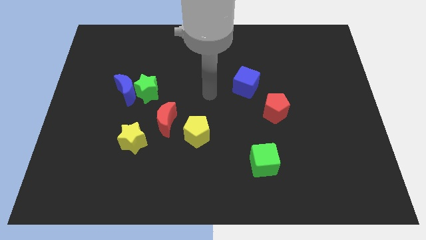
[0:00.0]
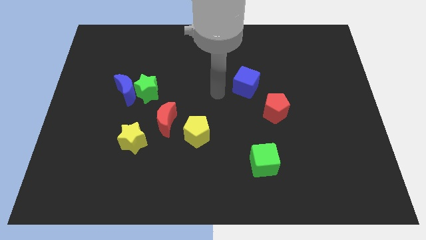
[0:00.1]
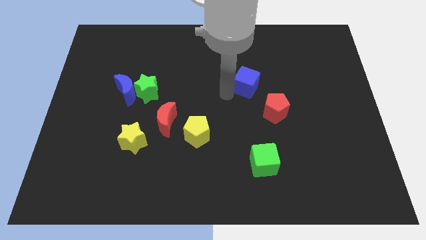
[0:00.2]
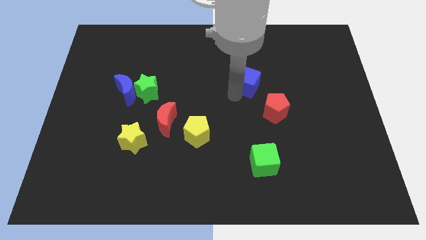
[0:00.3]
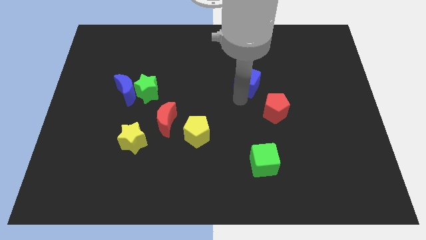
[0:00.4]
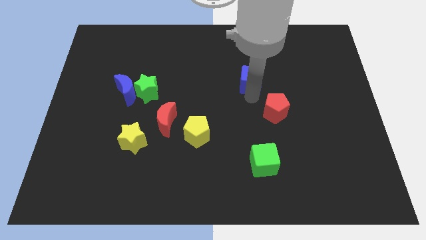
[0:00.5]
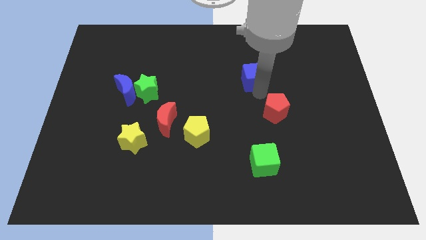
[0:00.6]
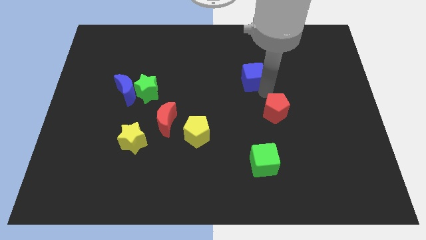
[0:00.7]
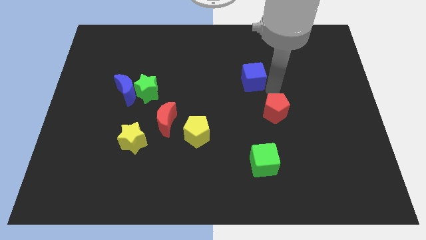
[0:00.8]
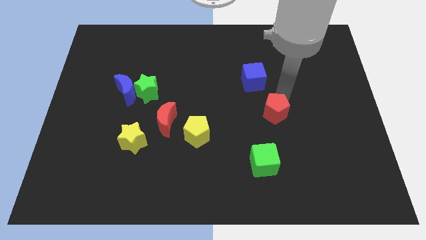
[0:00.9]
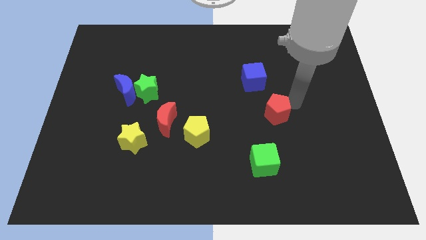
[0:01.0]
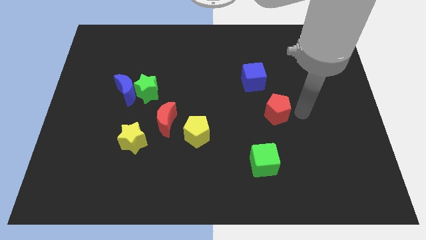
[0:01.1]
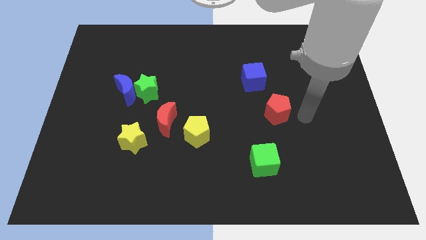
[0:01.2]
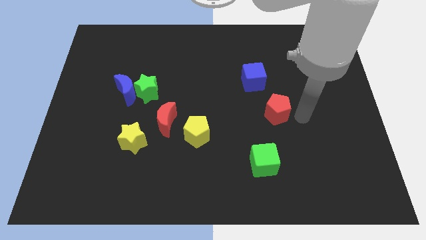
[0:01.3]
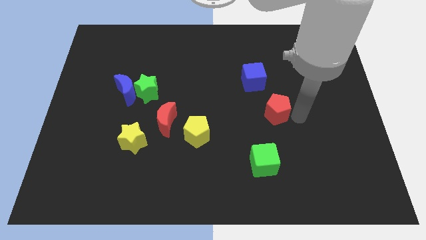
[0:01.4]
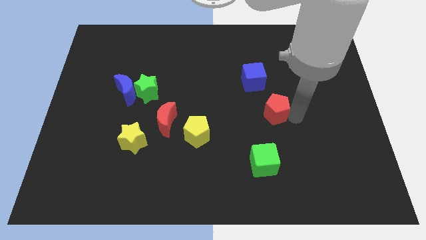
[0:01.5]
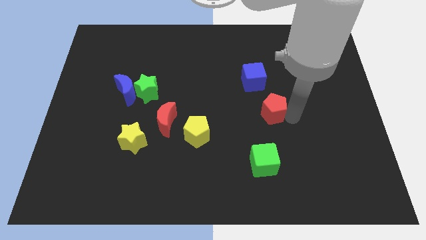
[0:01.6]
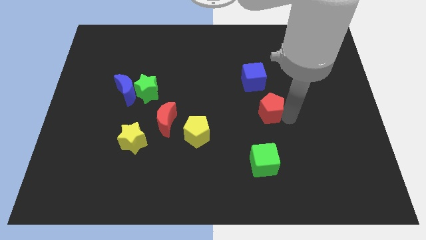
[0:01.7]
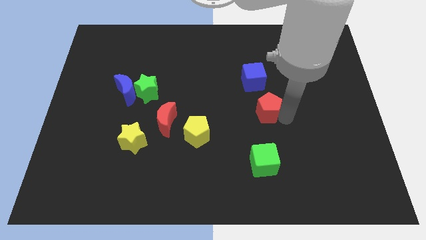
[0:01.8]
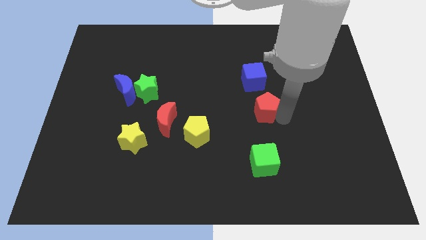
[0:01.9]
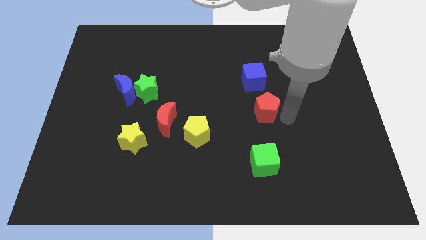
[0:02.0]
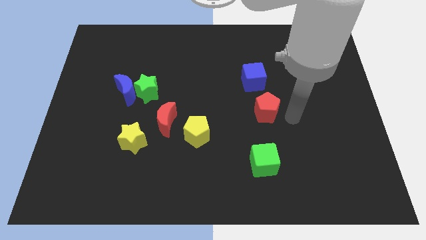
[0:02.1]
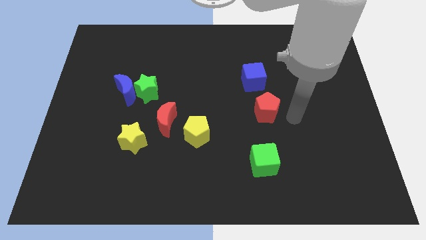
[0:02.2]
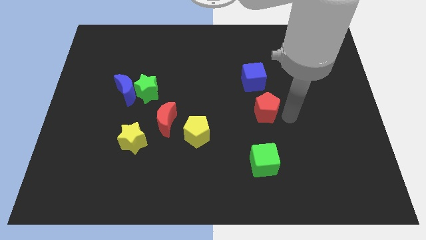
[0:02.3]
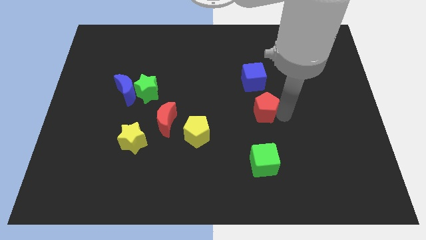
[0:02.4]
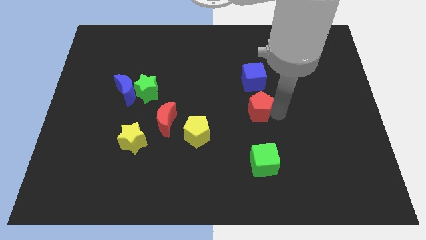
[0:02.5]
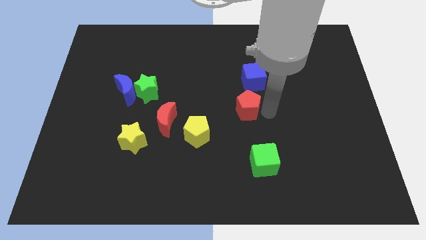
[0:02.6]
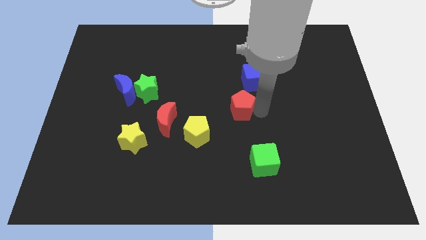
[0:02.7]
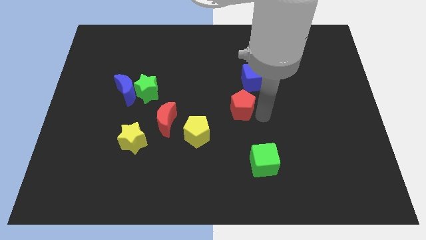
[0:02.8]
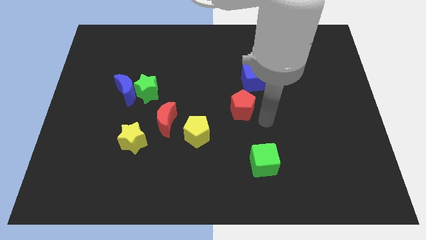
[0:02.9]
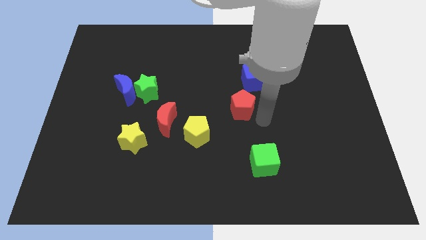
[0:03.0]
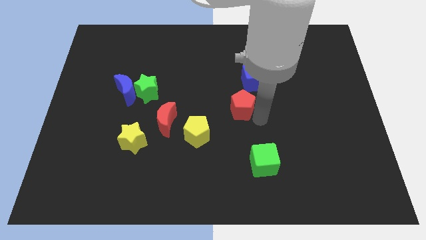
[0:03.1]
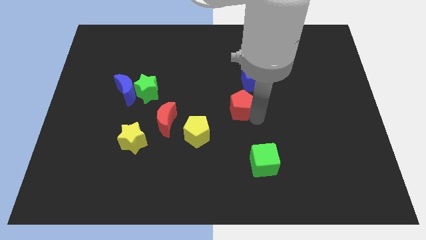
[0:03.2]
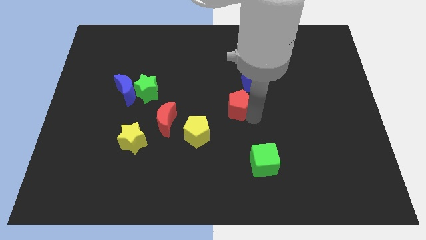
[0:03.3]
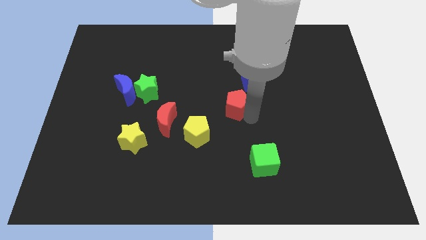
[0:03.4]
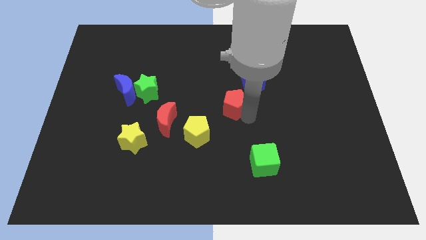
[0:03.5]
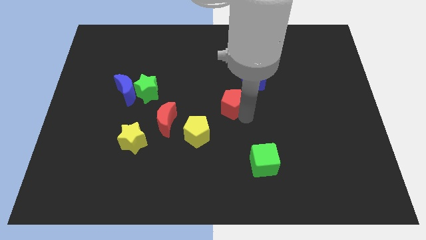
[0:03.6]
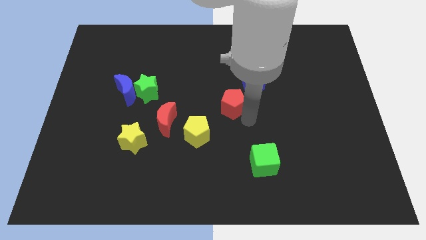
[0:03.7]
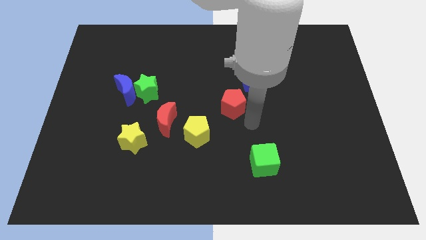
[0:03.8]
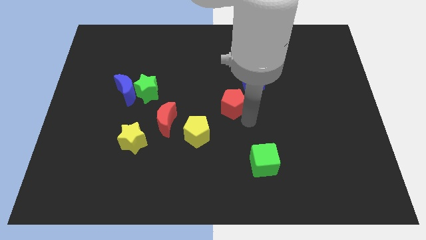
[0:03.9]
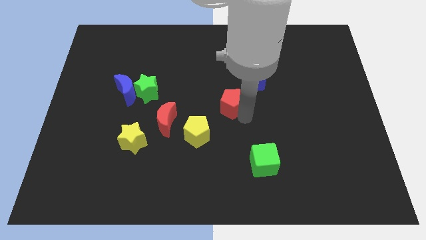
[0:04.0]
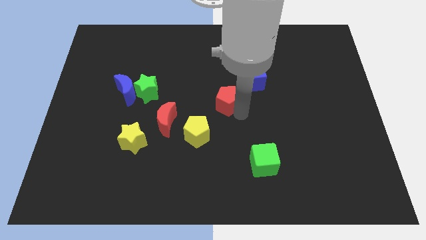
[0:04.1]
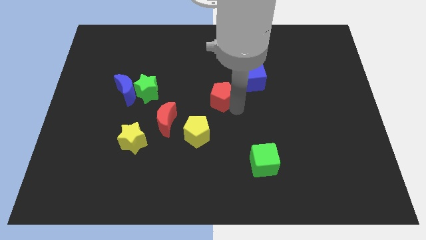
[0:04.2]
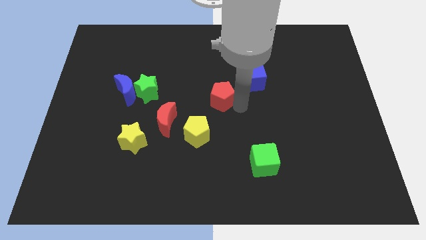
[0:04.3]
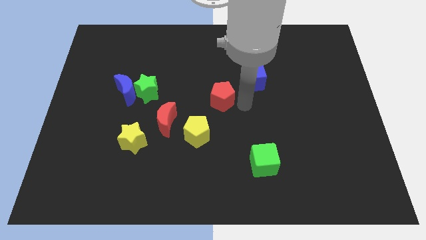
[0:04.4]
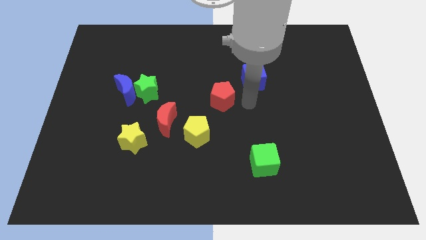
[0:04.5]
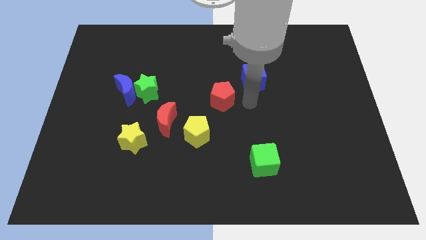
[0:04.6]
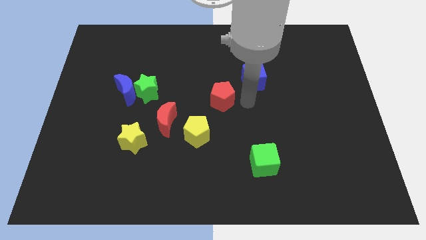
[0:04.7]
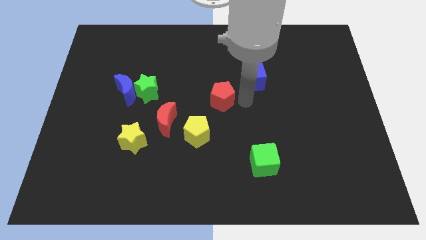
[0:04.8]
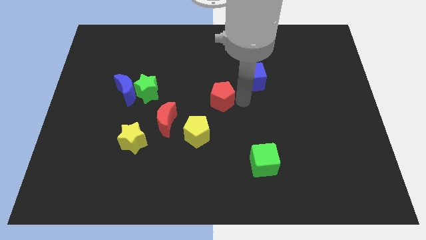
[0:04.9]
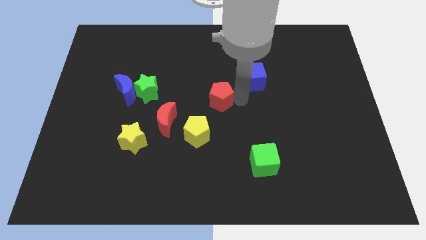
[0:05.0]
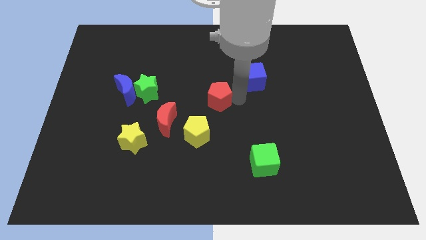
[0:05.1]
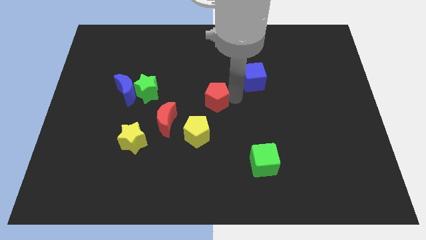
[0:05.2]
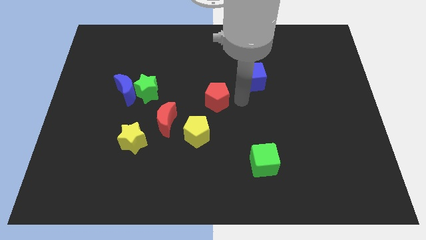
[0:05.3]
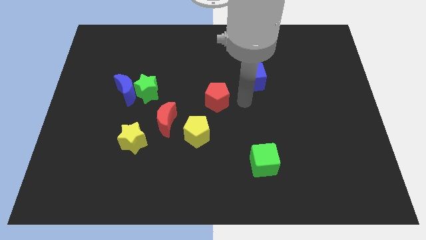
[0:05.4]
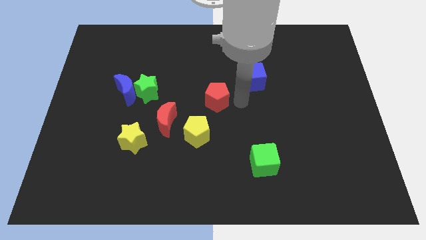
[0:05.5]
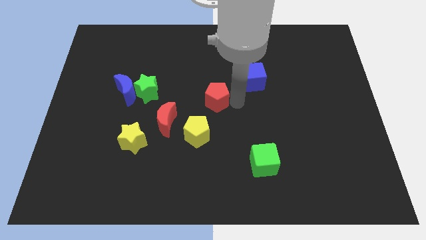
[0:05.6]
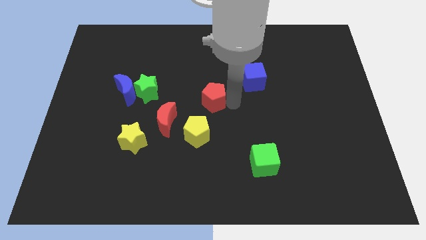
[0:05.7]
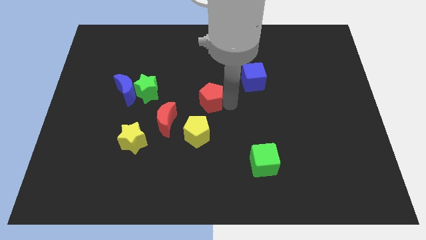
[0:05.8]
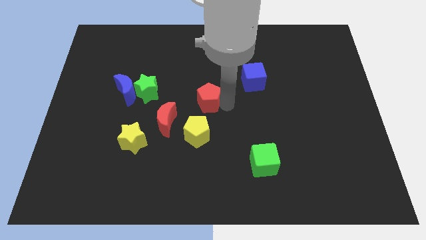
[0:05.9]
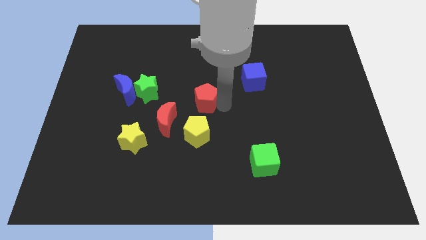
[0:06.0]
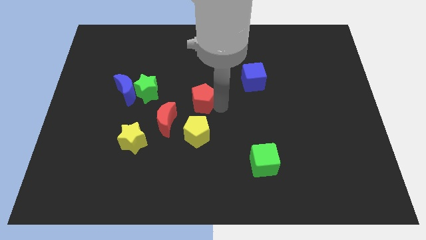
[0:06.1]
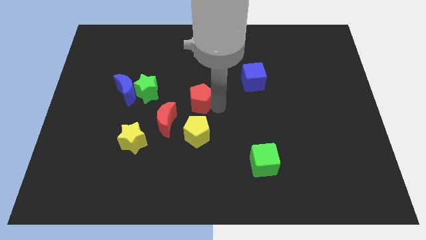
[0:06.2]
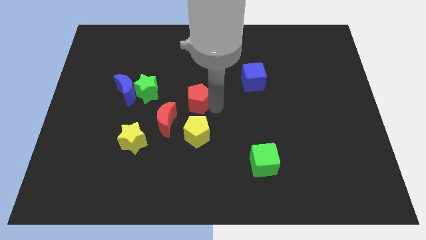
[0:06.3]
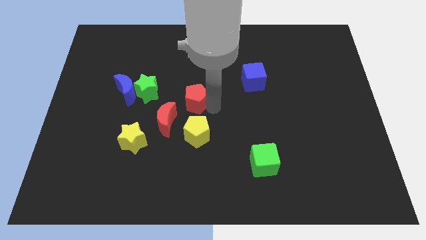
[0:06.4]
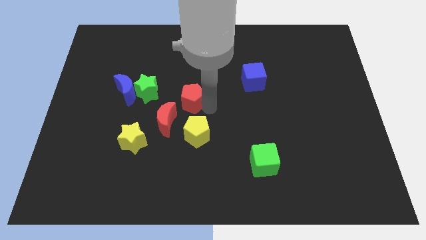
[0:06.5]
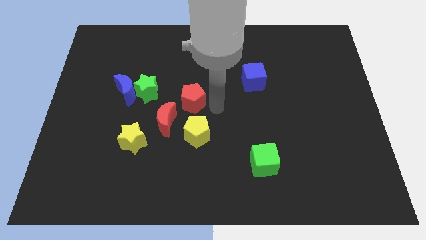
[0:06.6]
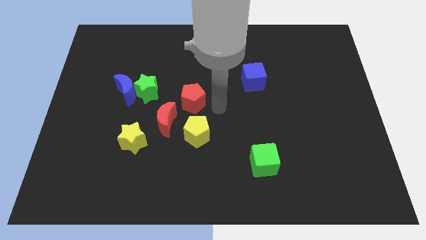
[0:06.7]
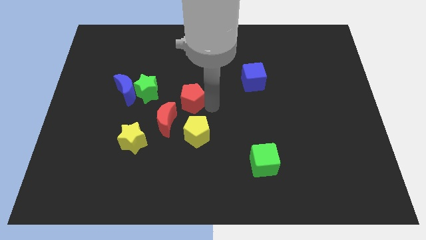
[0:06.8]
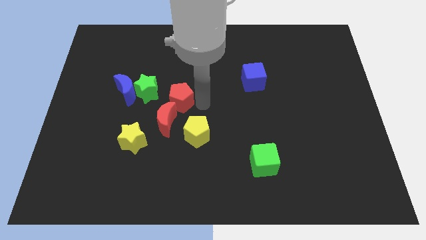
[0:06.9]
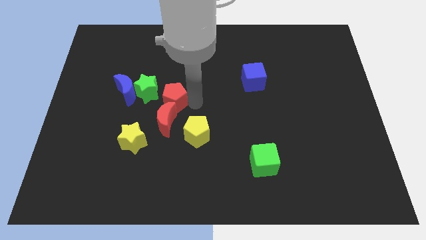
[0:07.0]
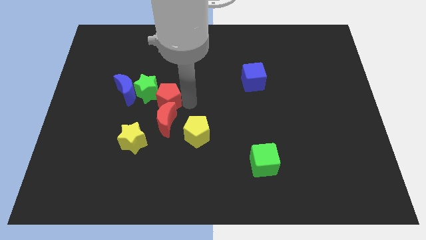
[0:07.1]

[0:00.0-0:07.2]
put the red pentagon towards the green star
